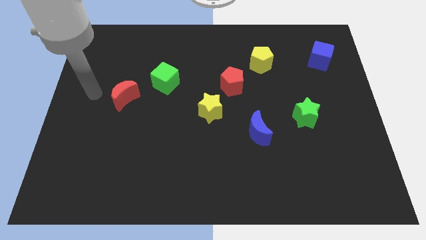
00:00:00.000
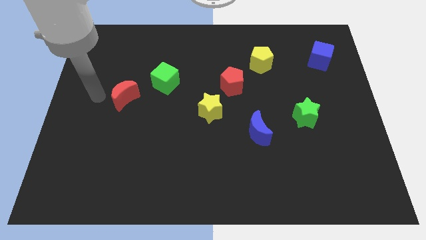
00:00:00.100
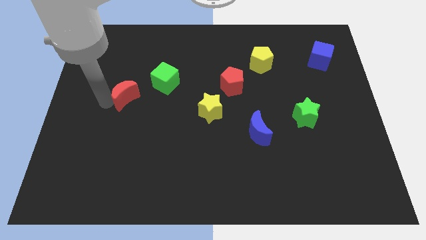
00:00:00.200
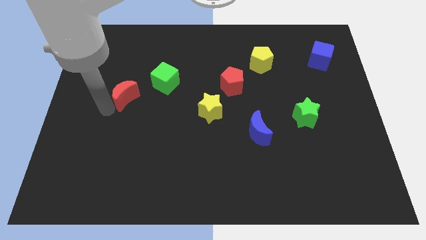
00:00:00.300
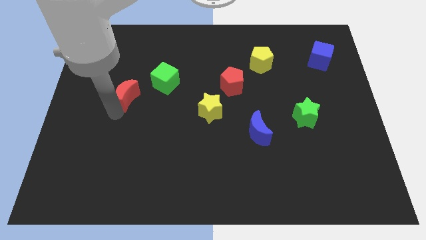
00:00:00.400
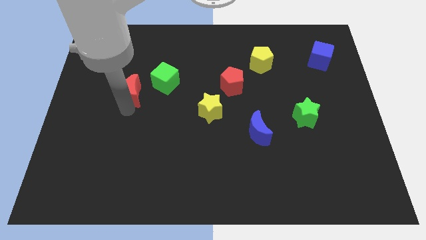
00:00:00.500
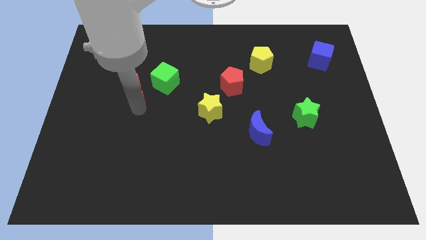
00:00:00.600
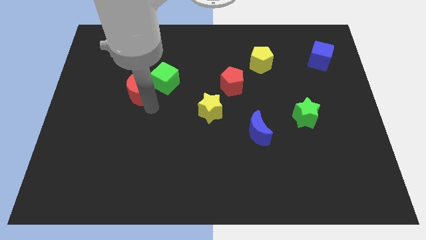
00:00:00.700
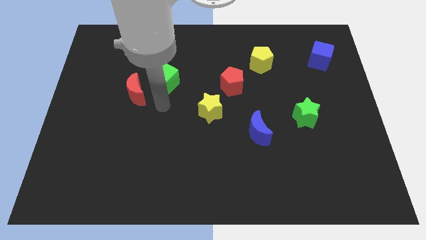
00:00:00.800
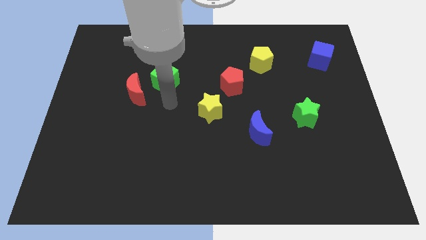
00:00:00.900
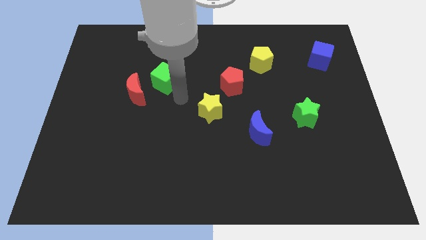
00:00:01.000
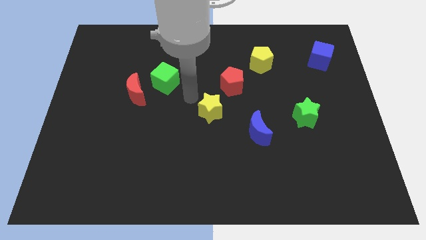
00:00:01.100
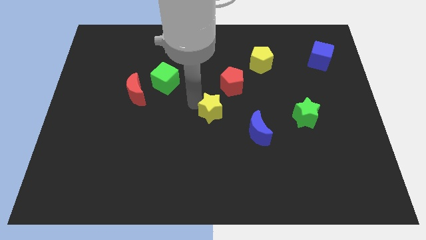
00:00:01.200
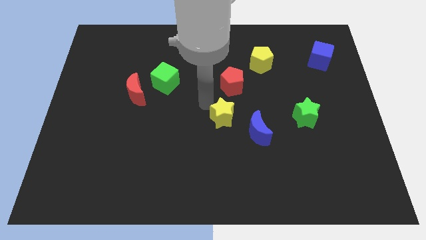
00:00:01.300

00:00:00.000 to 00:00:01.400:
move the red pentagon away from the yellow star

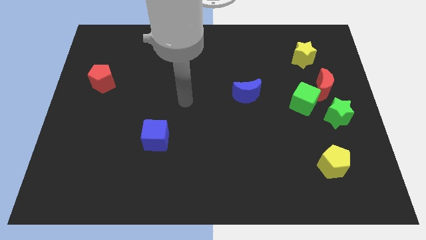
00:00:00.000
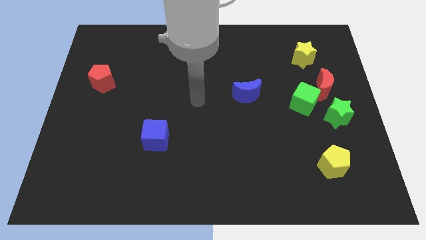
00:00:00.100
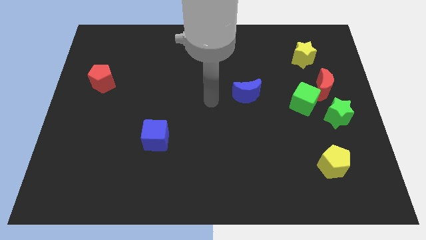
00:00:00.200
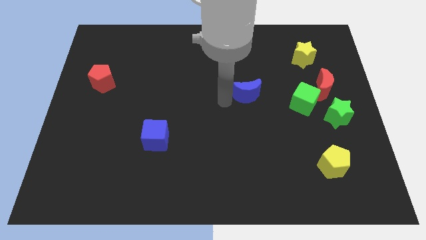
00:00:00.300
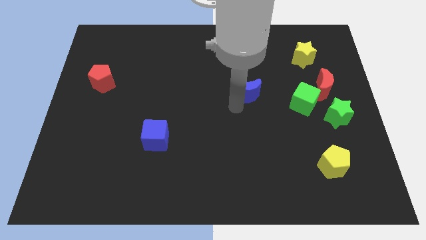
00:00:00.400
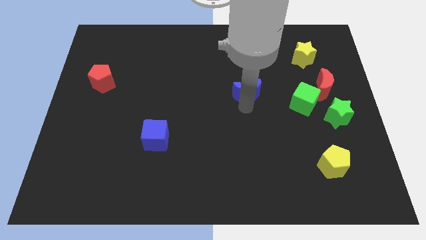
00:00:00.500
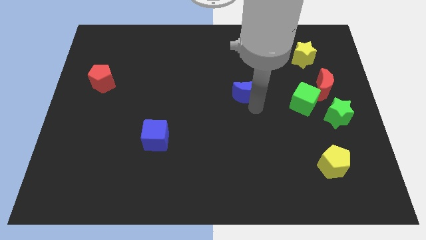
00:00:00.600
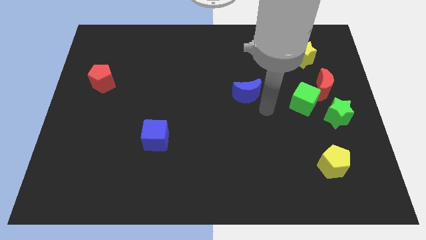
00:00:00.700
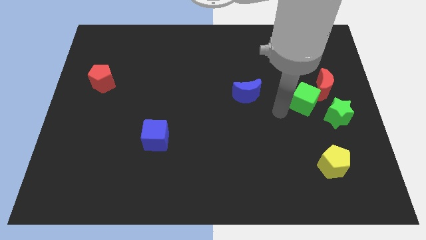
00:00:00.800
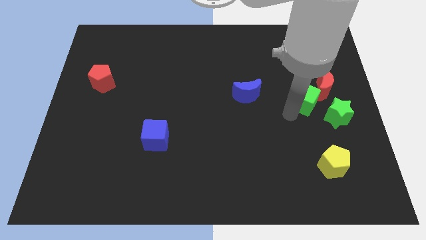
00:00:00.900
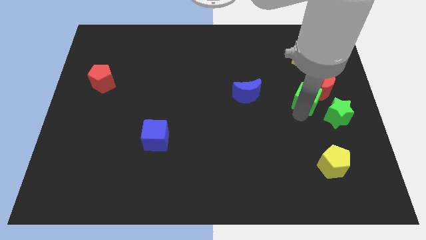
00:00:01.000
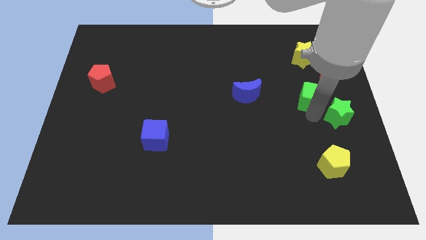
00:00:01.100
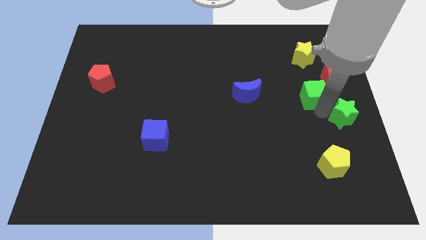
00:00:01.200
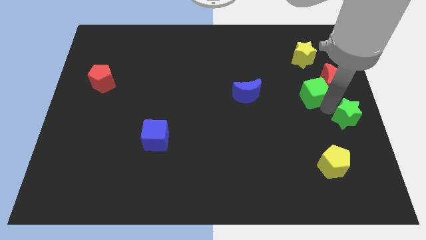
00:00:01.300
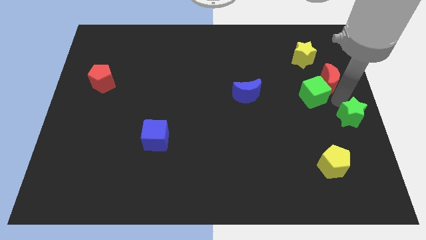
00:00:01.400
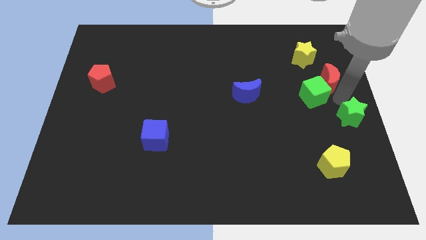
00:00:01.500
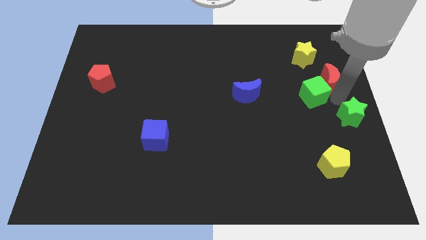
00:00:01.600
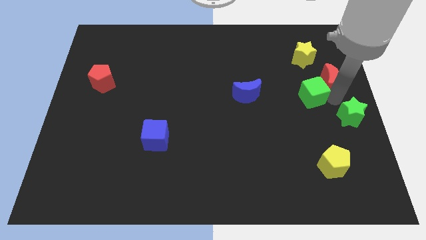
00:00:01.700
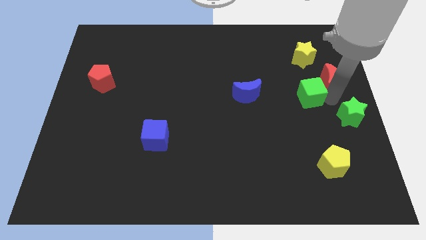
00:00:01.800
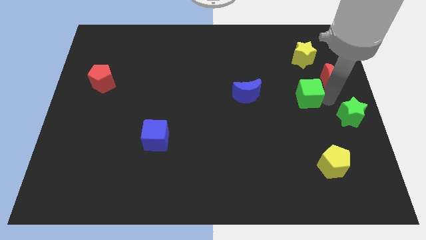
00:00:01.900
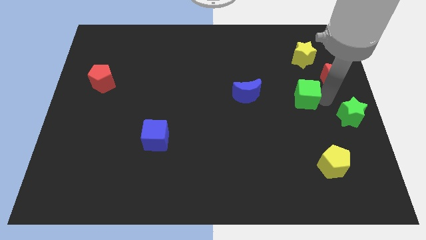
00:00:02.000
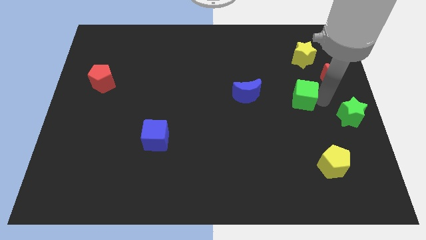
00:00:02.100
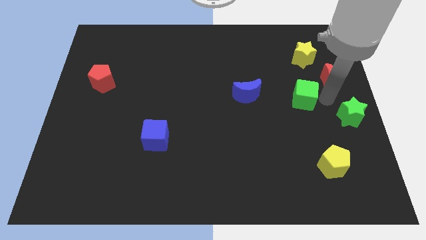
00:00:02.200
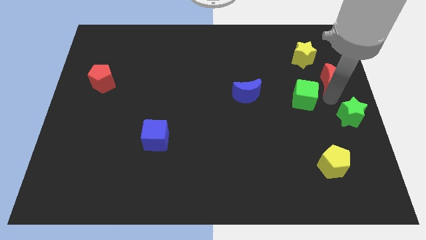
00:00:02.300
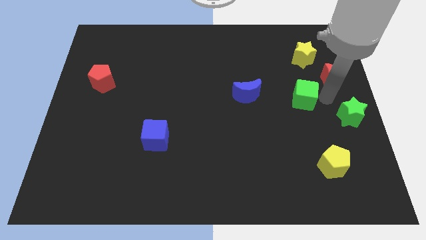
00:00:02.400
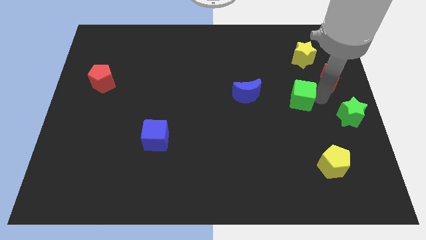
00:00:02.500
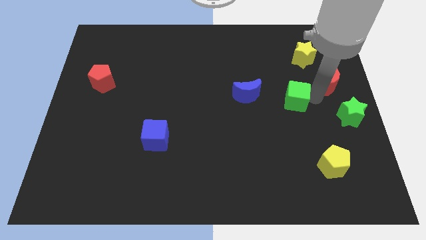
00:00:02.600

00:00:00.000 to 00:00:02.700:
move the green cube away from the red moon and green star

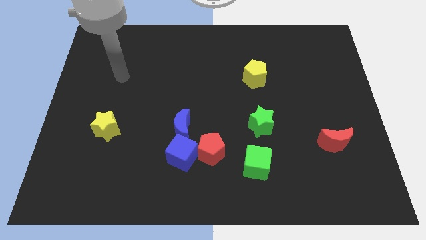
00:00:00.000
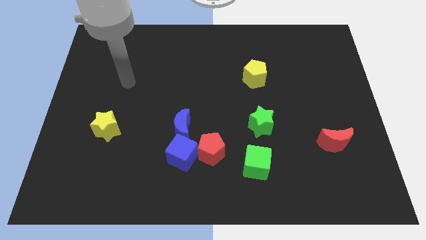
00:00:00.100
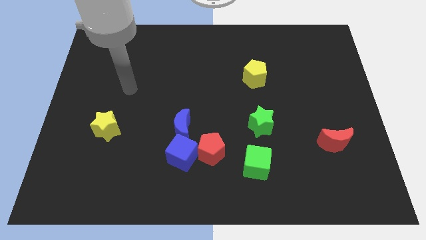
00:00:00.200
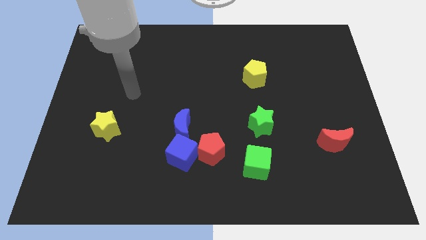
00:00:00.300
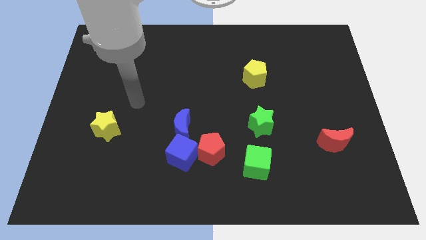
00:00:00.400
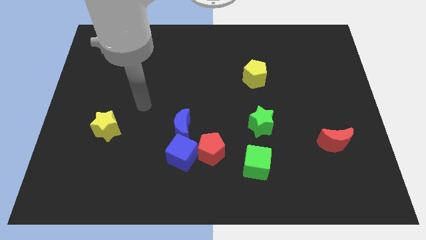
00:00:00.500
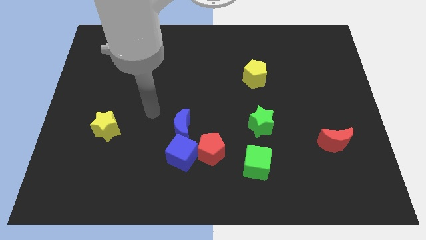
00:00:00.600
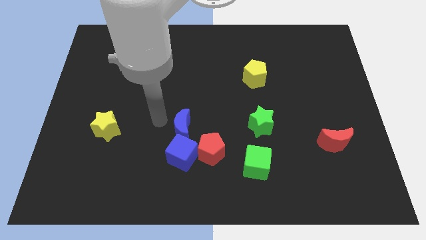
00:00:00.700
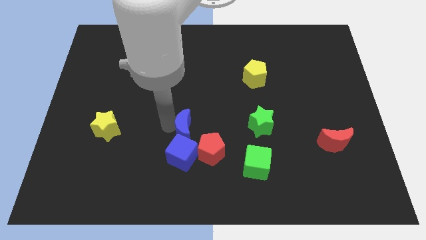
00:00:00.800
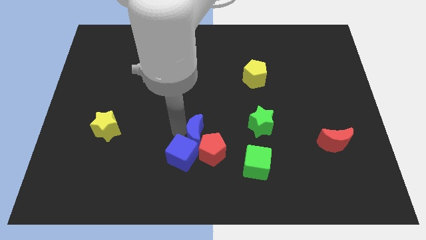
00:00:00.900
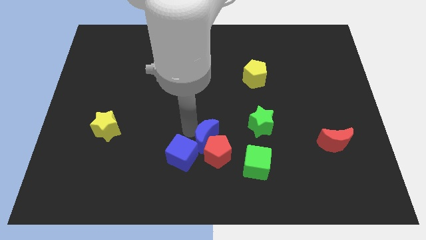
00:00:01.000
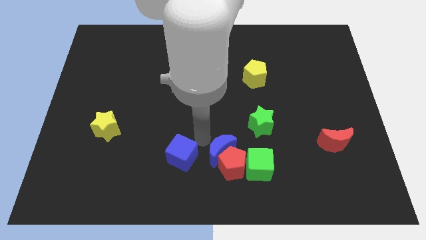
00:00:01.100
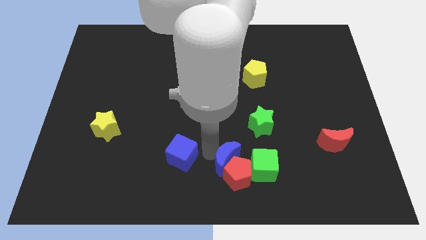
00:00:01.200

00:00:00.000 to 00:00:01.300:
separate the blue cube from the red pentagon and blue moon

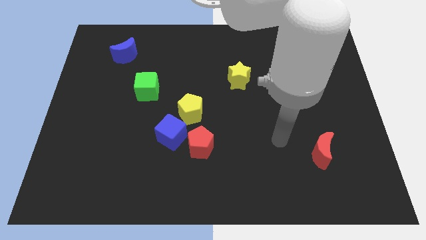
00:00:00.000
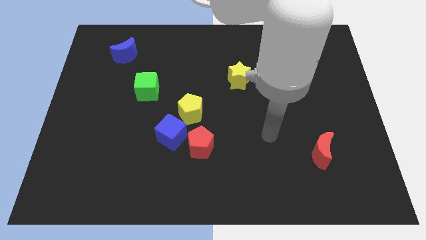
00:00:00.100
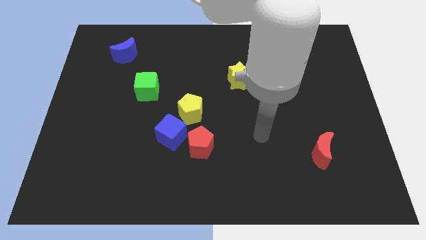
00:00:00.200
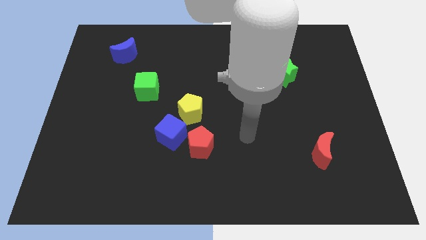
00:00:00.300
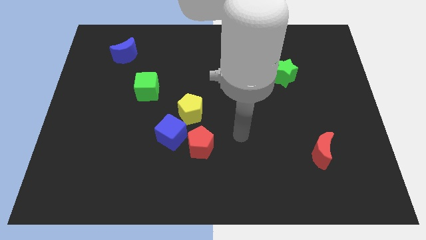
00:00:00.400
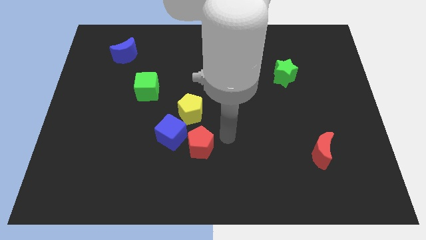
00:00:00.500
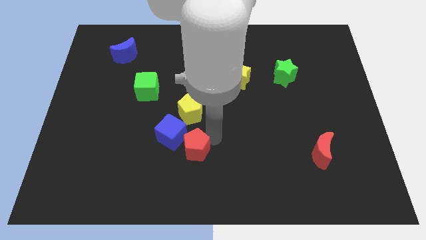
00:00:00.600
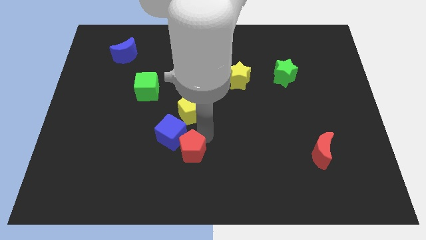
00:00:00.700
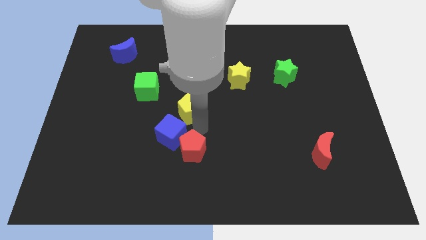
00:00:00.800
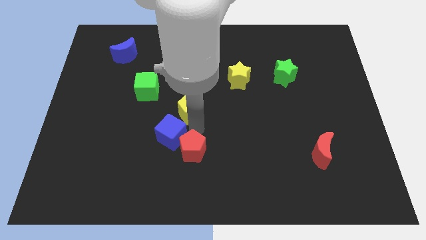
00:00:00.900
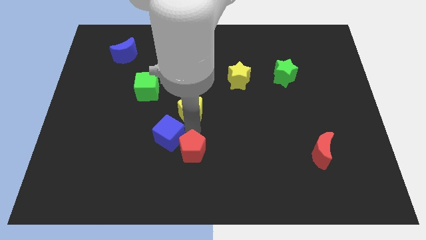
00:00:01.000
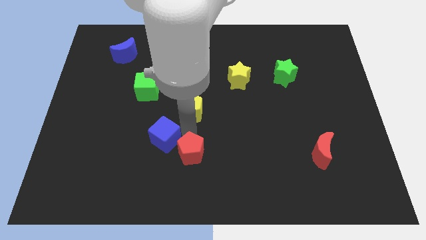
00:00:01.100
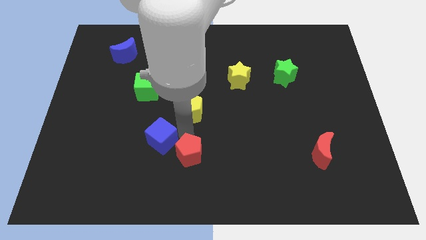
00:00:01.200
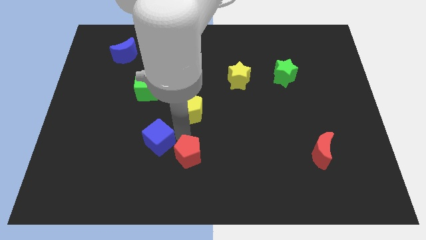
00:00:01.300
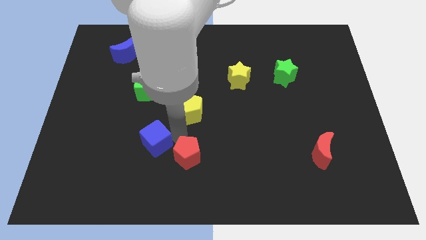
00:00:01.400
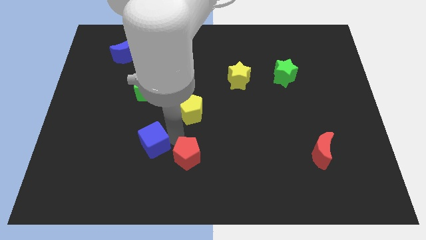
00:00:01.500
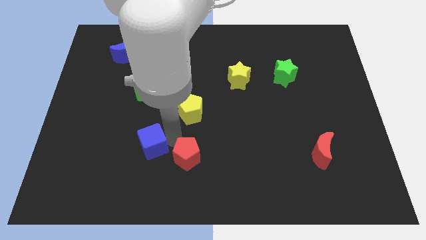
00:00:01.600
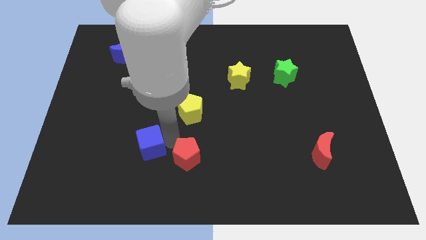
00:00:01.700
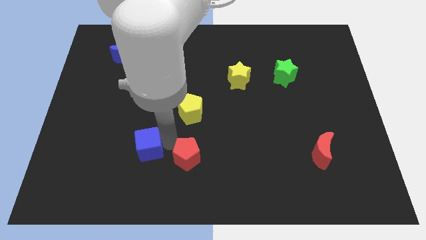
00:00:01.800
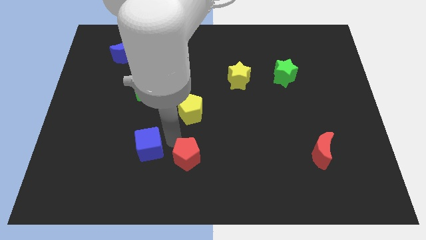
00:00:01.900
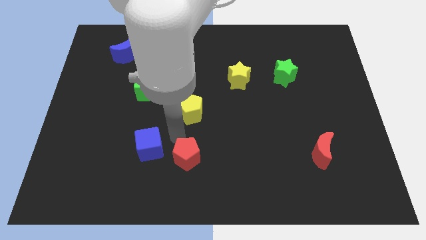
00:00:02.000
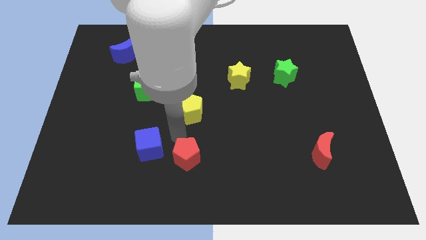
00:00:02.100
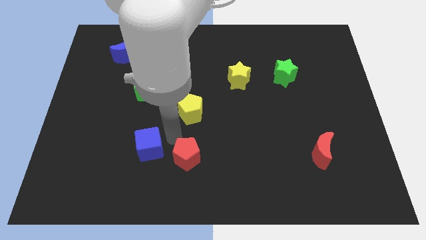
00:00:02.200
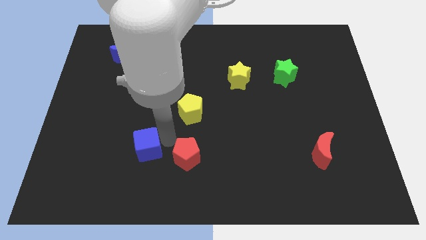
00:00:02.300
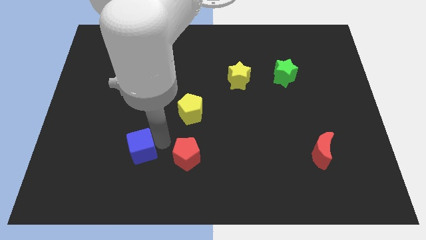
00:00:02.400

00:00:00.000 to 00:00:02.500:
pull the blue cube apart from the red pentagon and yellow pentagon

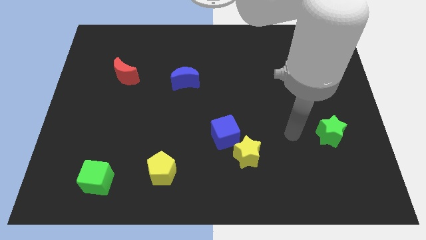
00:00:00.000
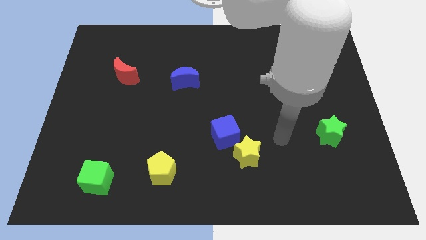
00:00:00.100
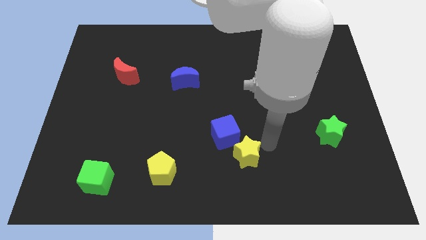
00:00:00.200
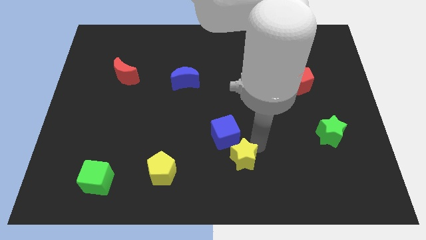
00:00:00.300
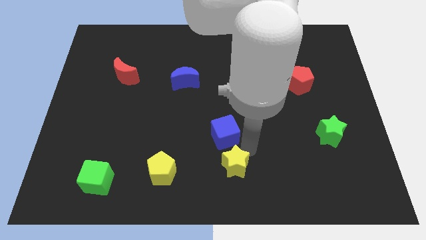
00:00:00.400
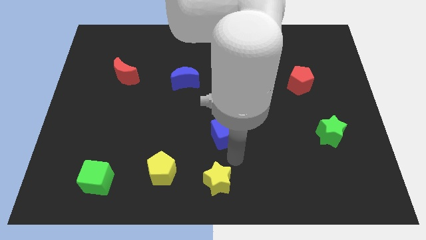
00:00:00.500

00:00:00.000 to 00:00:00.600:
separate the blue cube from the yellow star

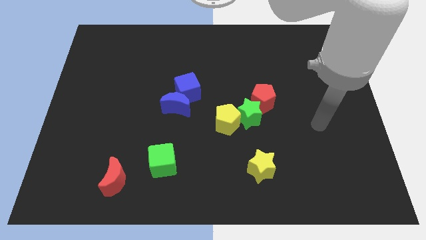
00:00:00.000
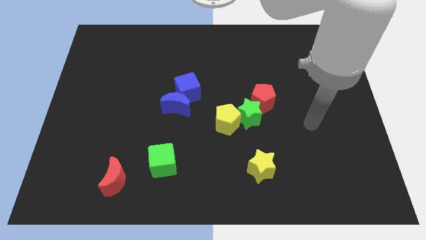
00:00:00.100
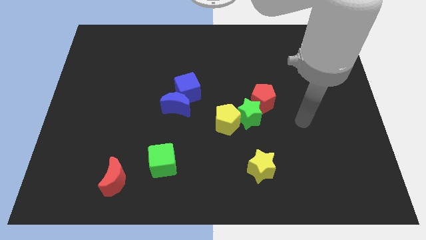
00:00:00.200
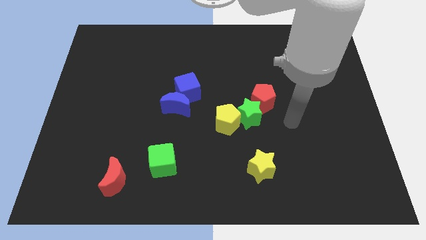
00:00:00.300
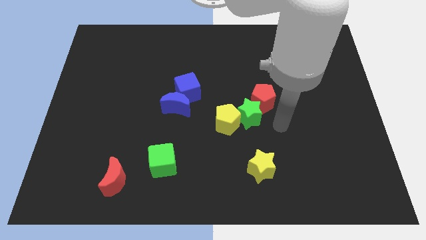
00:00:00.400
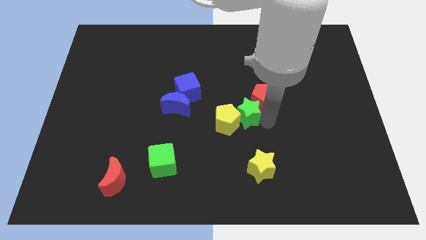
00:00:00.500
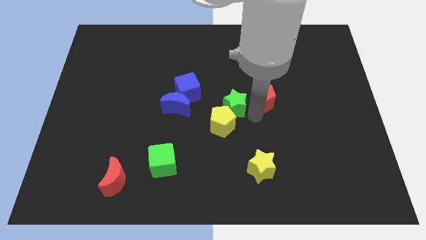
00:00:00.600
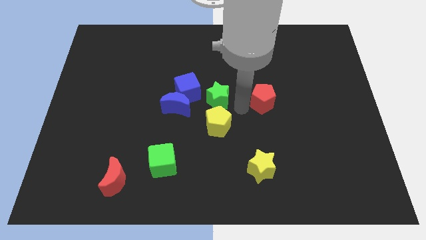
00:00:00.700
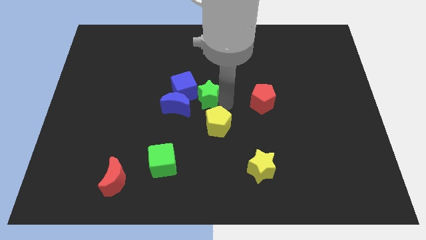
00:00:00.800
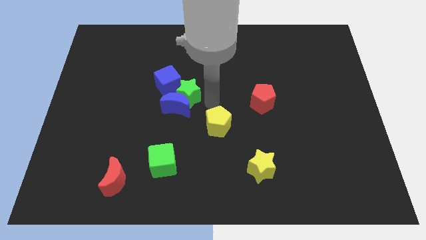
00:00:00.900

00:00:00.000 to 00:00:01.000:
pull the yellow pentagon apart from the green star
